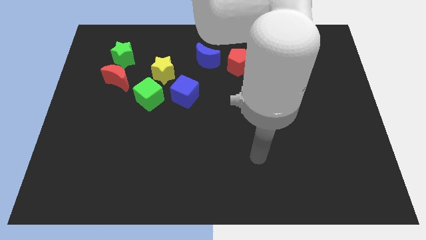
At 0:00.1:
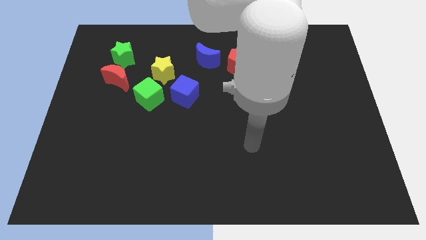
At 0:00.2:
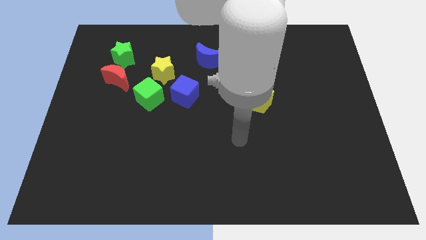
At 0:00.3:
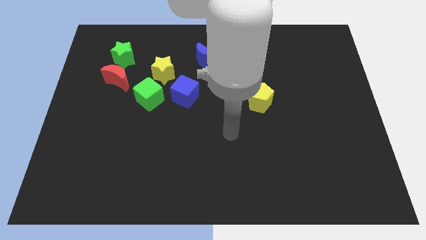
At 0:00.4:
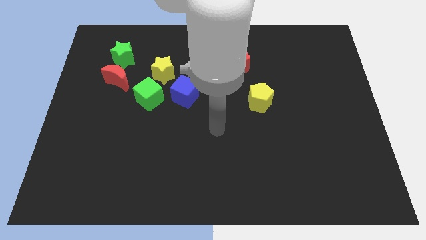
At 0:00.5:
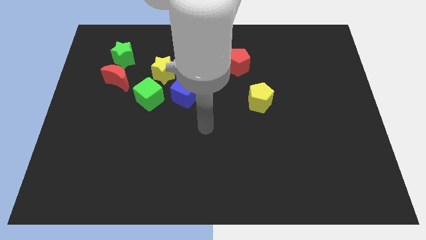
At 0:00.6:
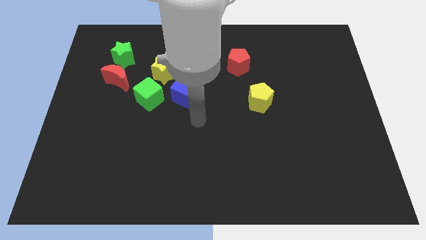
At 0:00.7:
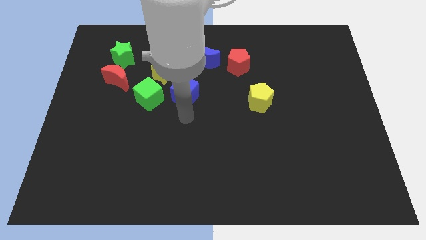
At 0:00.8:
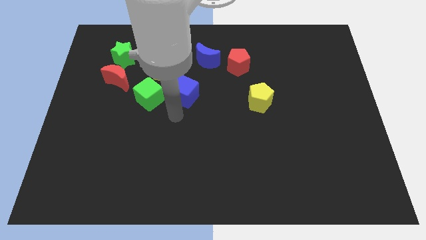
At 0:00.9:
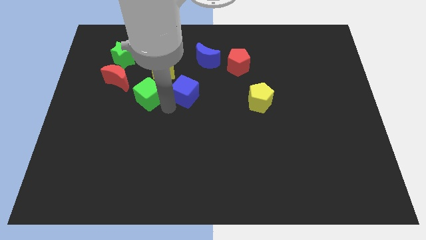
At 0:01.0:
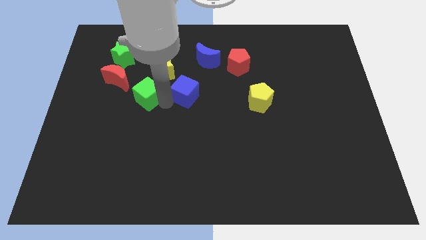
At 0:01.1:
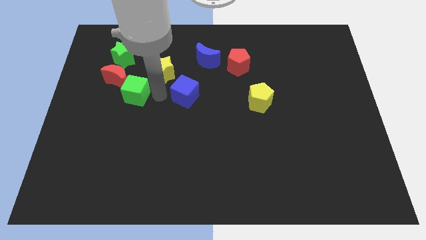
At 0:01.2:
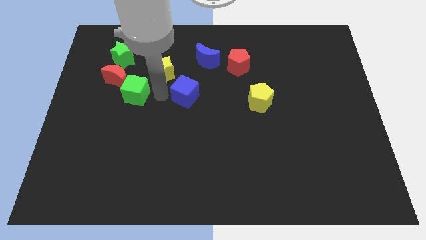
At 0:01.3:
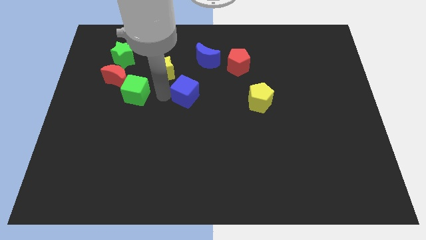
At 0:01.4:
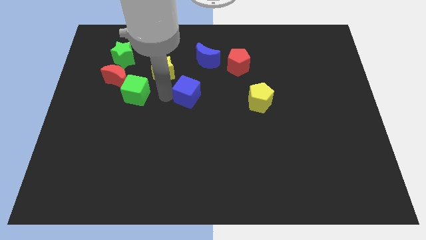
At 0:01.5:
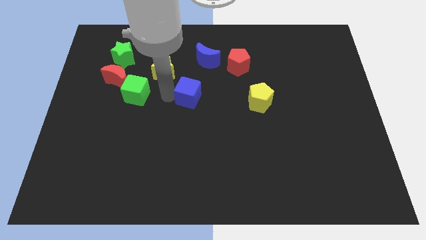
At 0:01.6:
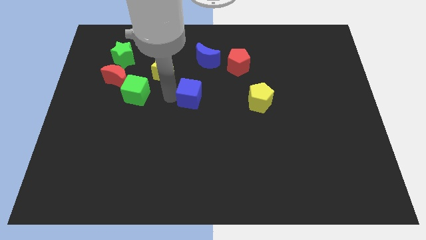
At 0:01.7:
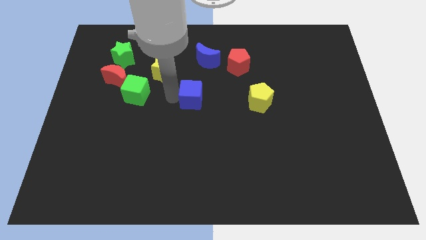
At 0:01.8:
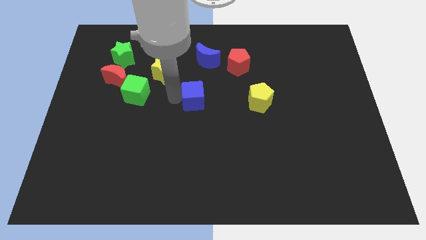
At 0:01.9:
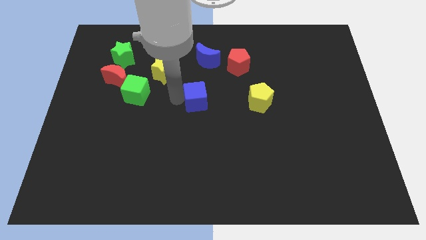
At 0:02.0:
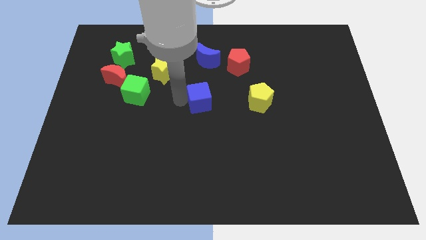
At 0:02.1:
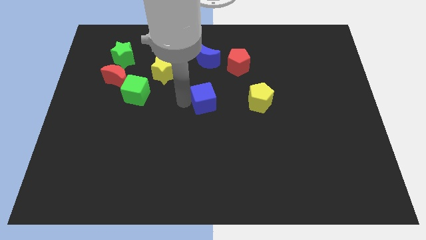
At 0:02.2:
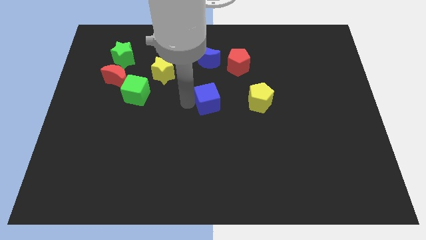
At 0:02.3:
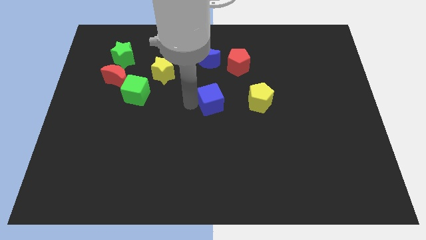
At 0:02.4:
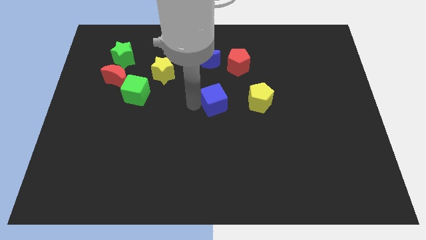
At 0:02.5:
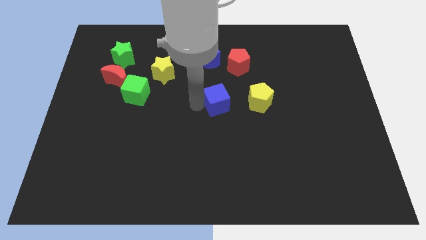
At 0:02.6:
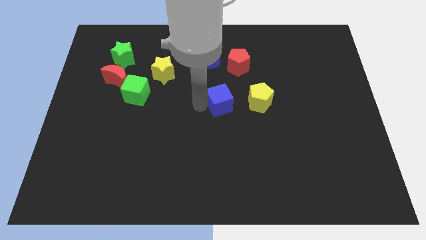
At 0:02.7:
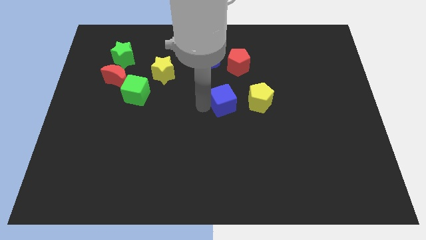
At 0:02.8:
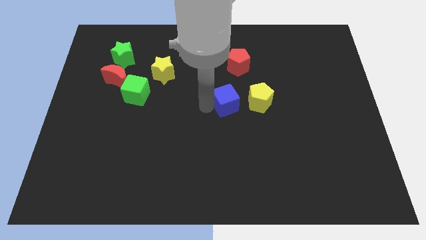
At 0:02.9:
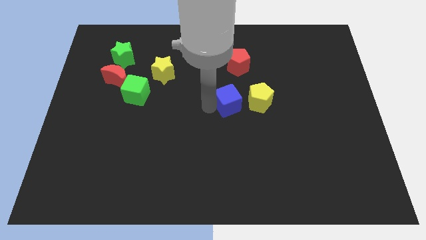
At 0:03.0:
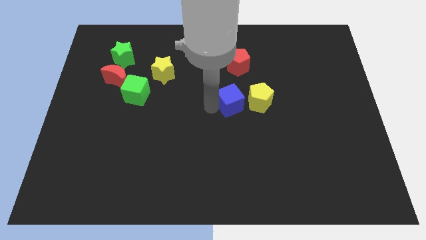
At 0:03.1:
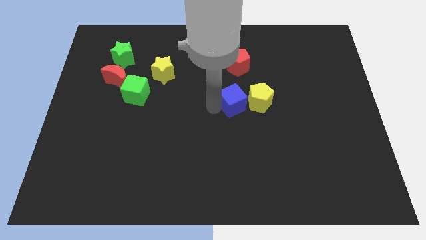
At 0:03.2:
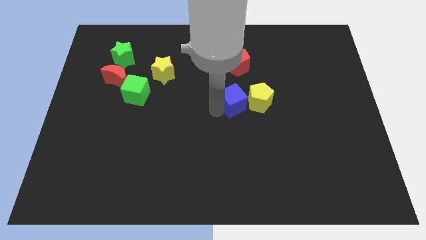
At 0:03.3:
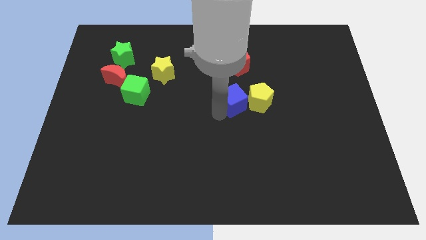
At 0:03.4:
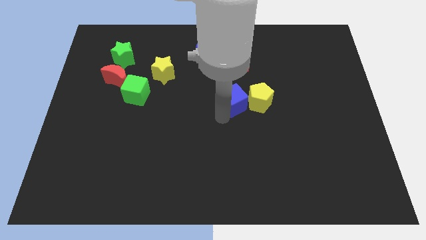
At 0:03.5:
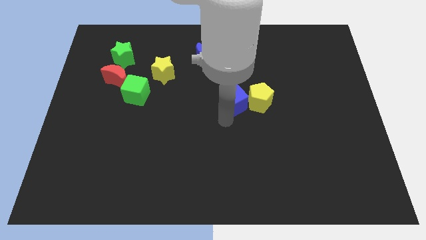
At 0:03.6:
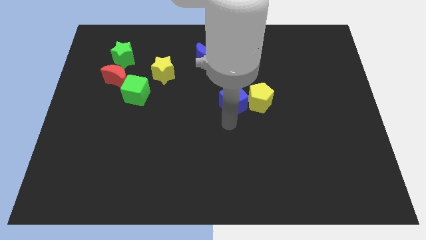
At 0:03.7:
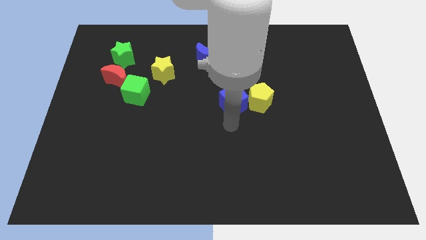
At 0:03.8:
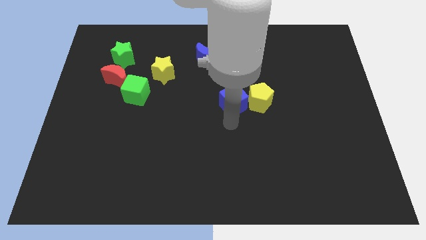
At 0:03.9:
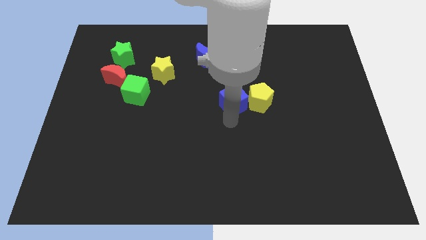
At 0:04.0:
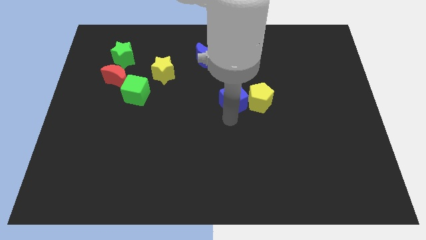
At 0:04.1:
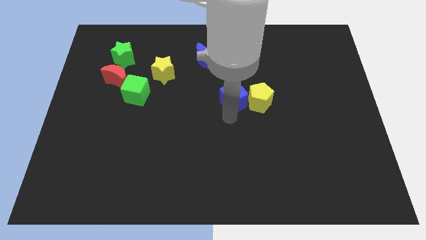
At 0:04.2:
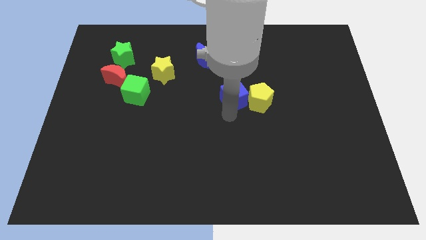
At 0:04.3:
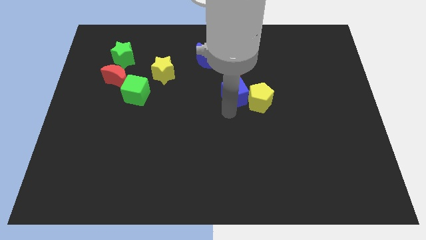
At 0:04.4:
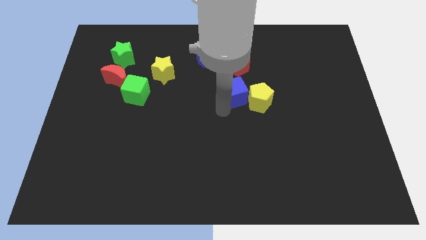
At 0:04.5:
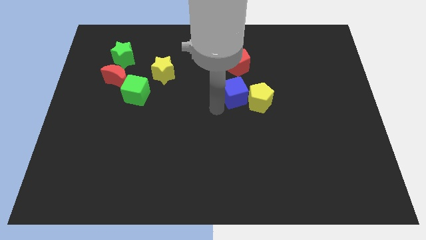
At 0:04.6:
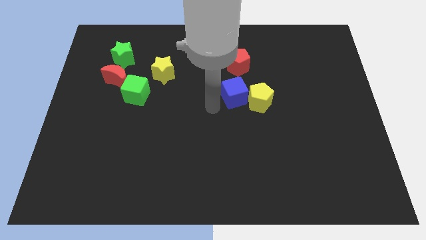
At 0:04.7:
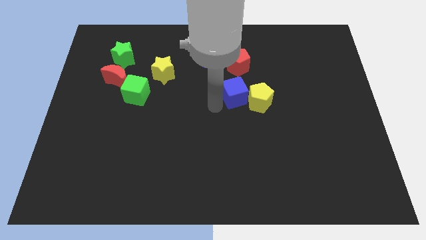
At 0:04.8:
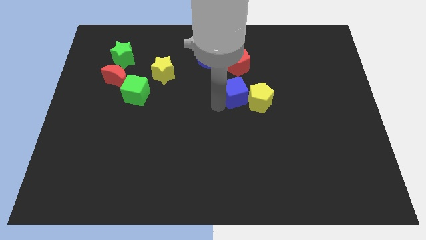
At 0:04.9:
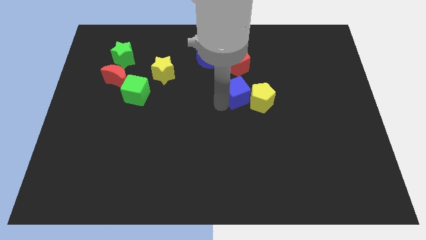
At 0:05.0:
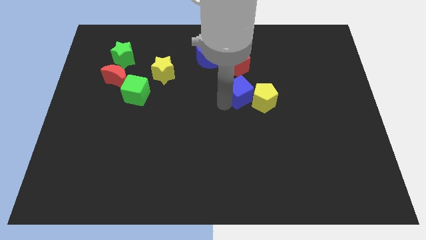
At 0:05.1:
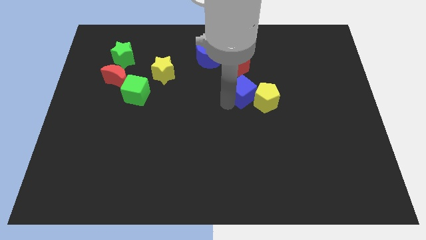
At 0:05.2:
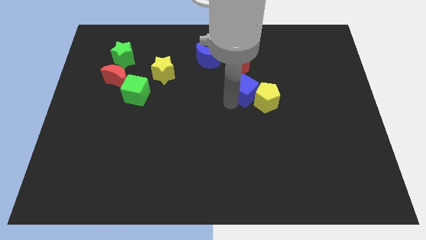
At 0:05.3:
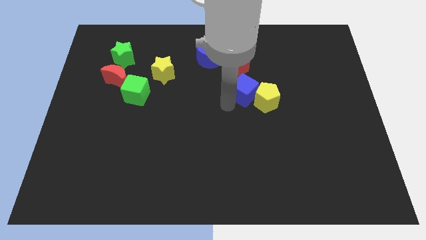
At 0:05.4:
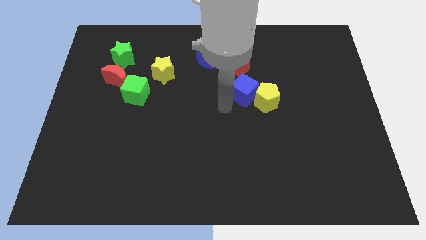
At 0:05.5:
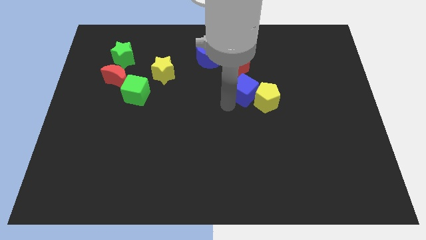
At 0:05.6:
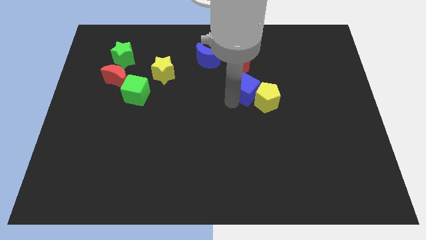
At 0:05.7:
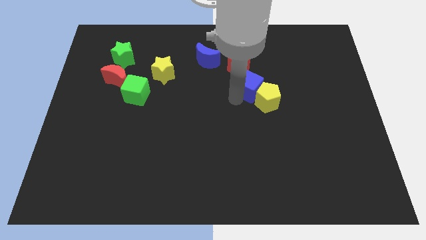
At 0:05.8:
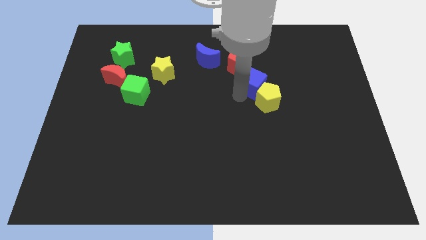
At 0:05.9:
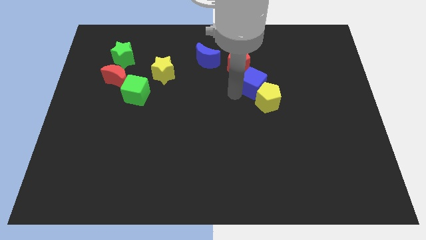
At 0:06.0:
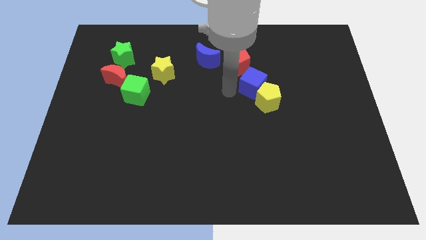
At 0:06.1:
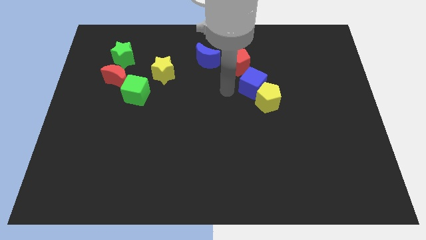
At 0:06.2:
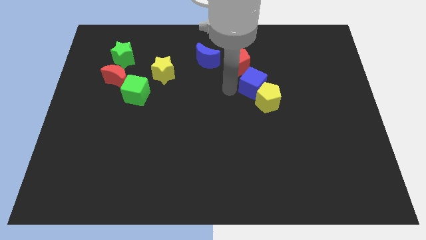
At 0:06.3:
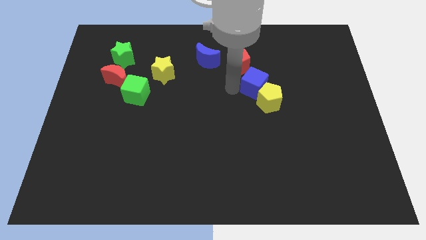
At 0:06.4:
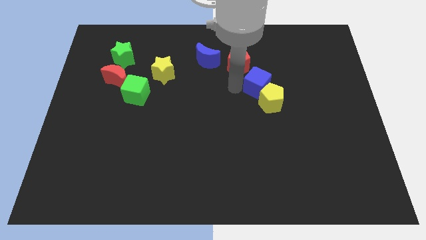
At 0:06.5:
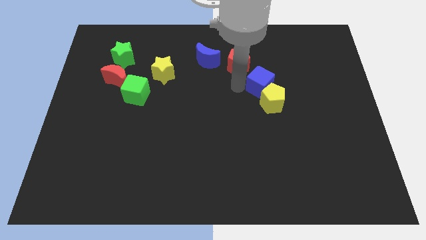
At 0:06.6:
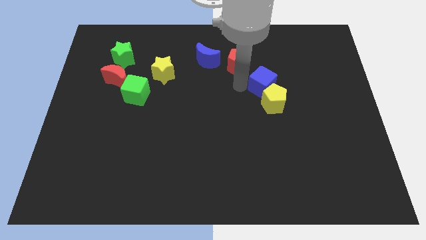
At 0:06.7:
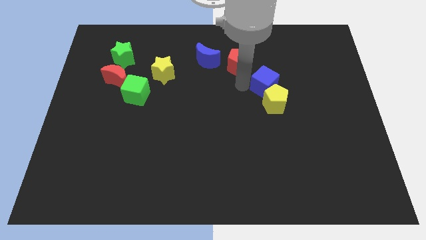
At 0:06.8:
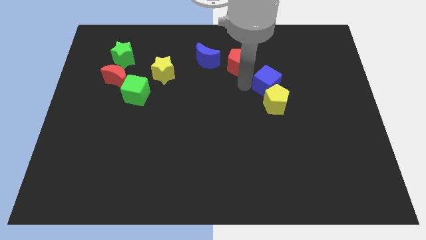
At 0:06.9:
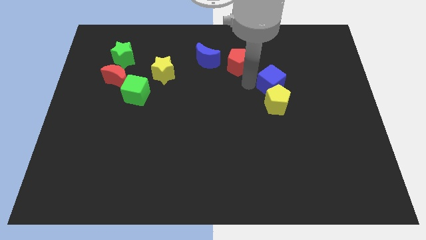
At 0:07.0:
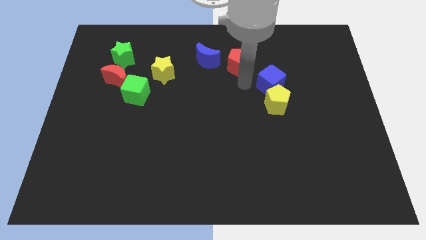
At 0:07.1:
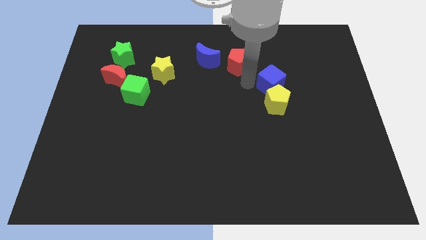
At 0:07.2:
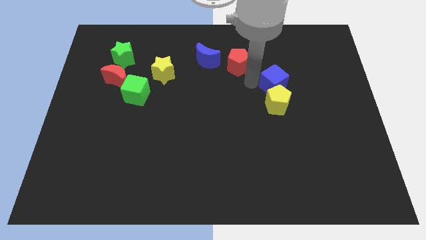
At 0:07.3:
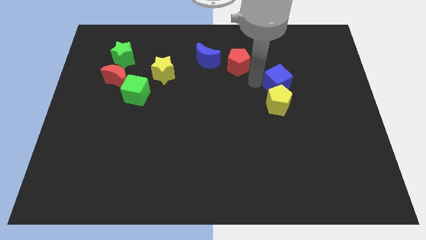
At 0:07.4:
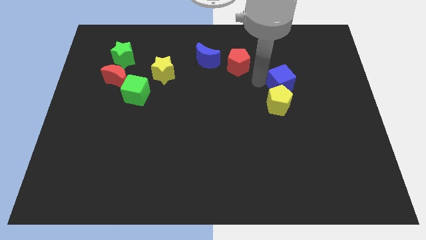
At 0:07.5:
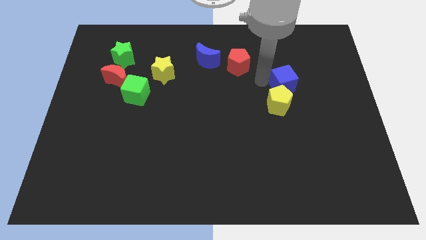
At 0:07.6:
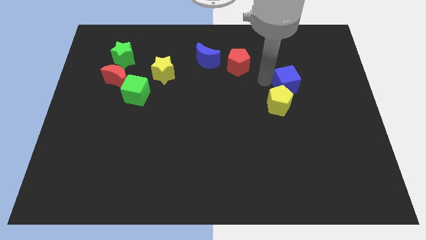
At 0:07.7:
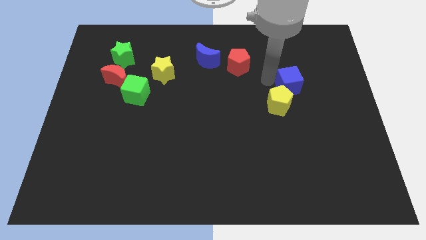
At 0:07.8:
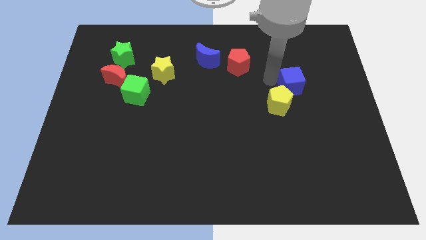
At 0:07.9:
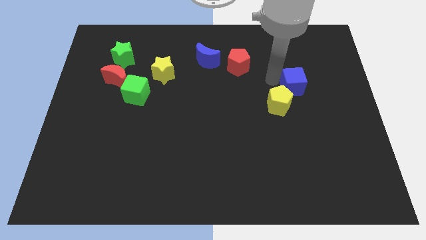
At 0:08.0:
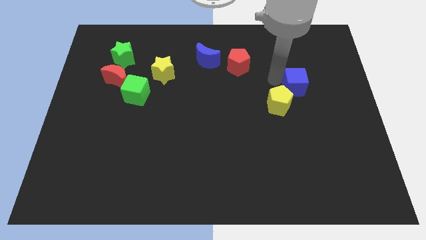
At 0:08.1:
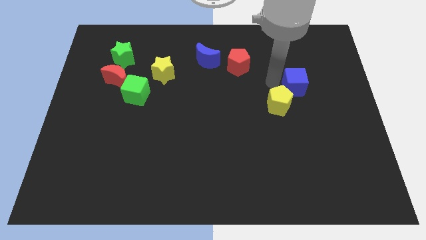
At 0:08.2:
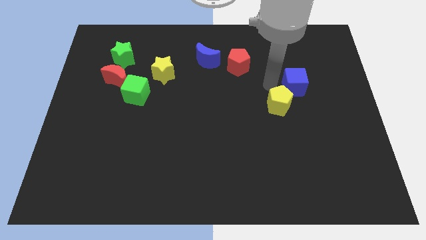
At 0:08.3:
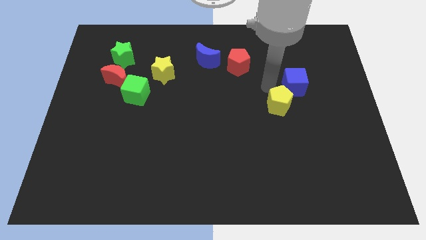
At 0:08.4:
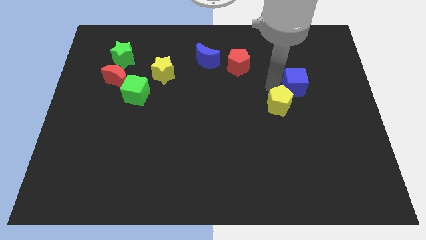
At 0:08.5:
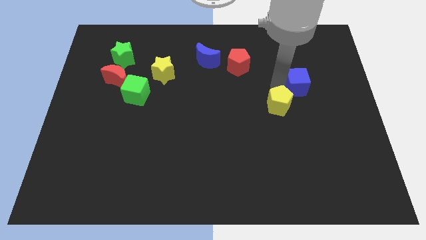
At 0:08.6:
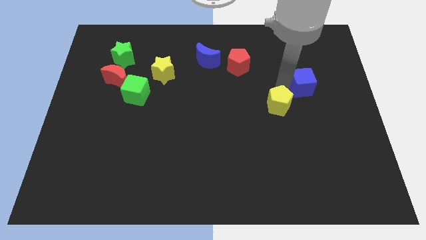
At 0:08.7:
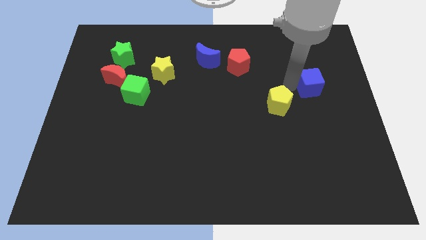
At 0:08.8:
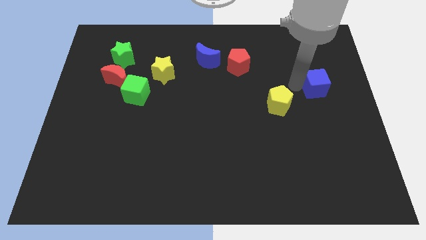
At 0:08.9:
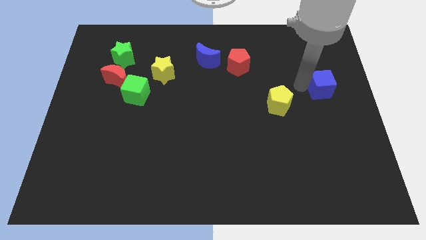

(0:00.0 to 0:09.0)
put the blue cube to the center right
